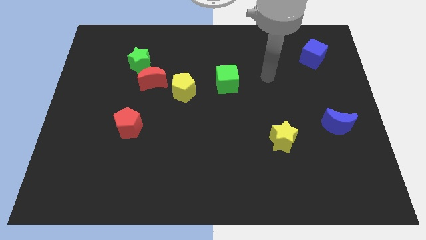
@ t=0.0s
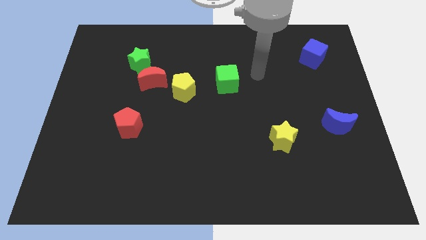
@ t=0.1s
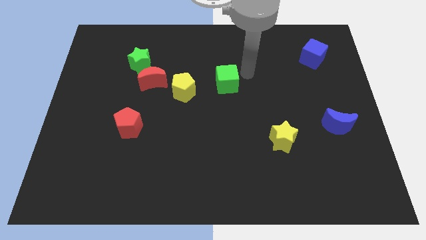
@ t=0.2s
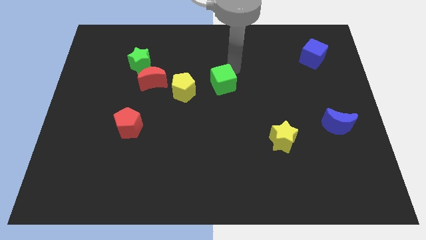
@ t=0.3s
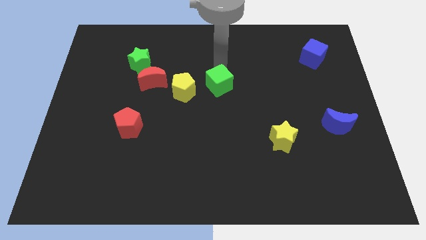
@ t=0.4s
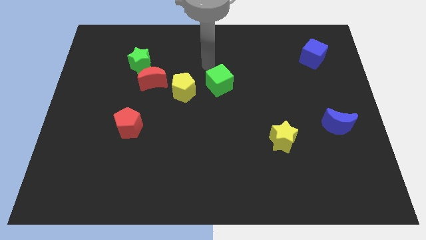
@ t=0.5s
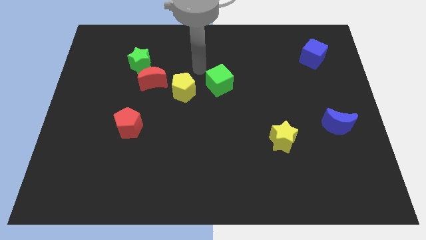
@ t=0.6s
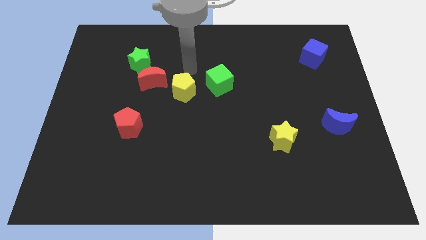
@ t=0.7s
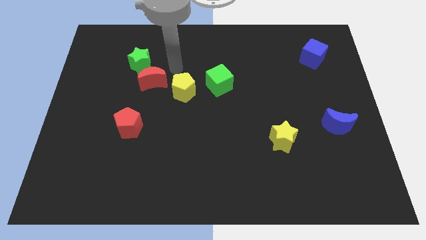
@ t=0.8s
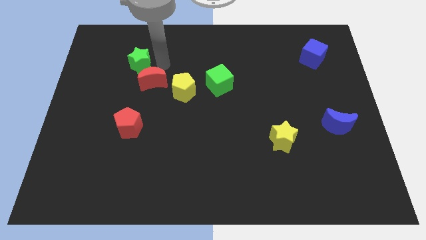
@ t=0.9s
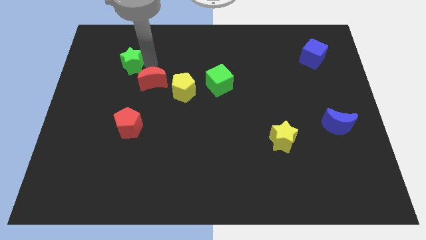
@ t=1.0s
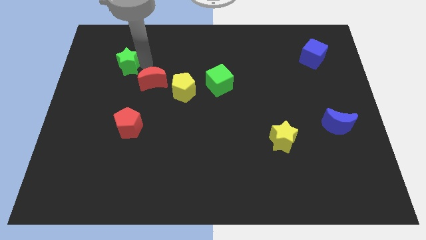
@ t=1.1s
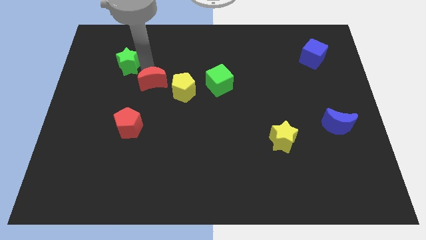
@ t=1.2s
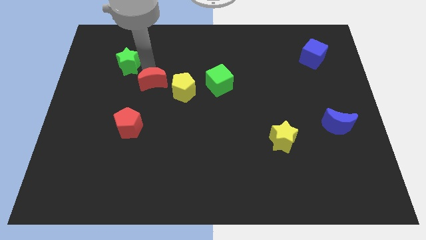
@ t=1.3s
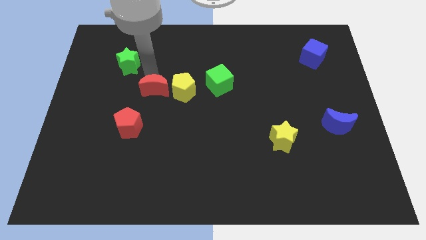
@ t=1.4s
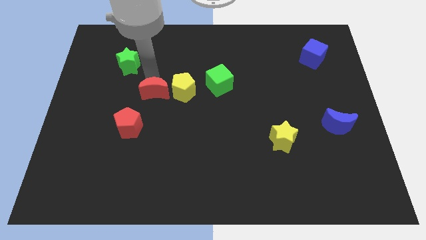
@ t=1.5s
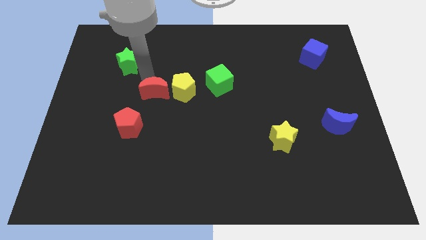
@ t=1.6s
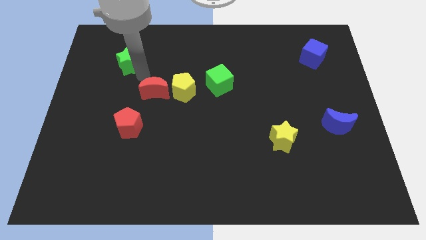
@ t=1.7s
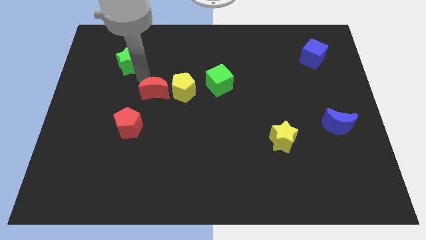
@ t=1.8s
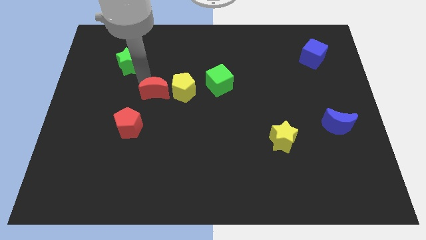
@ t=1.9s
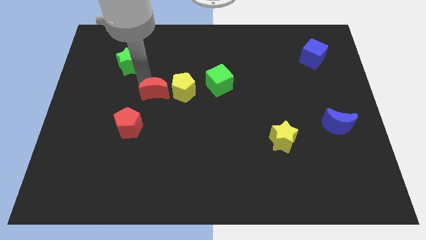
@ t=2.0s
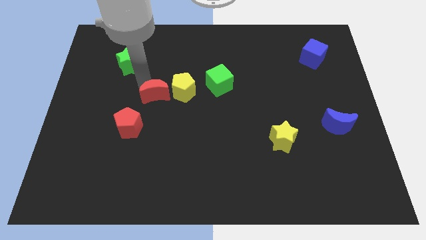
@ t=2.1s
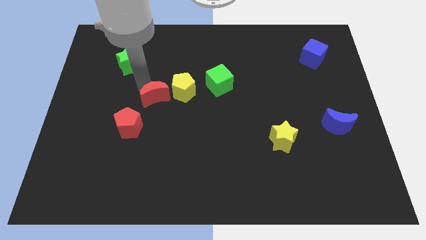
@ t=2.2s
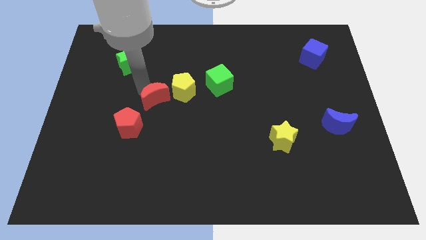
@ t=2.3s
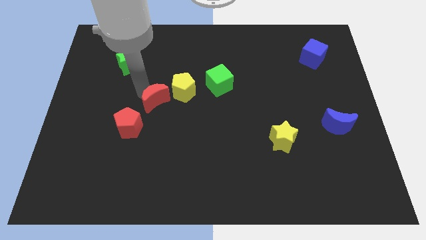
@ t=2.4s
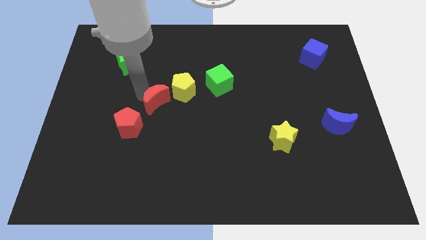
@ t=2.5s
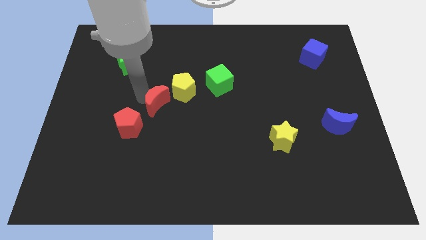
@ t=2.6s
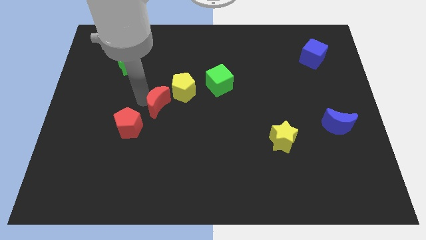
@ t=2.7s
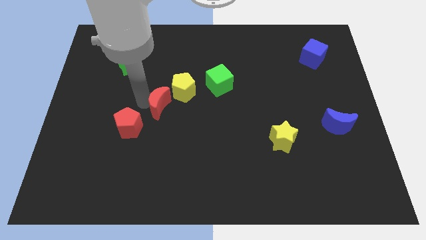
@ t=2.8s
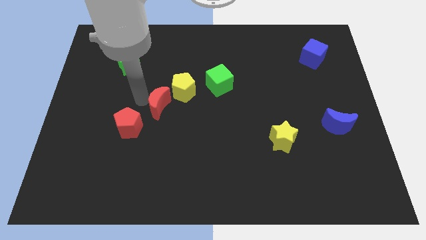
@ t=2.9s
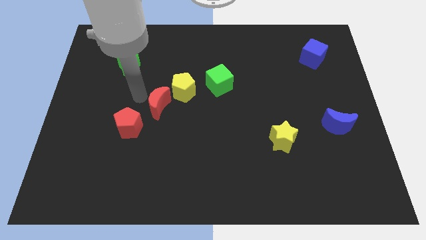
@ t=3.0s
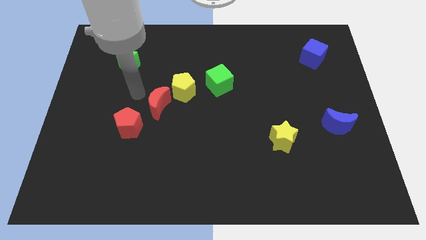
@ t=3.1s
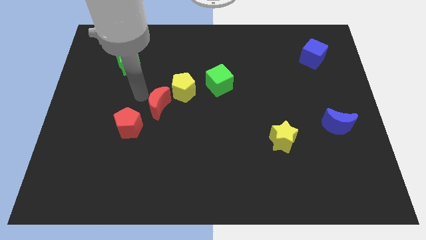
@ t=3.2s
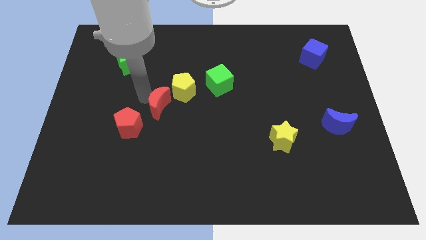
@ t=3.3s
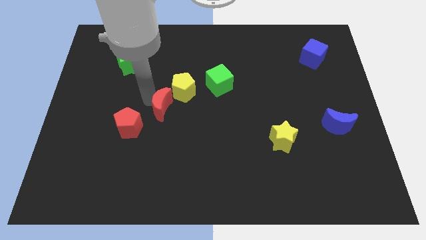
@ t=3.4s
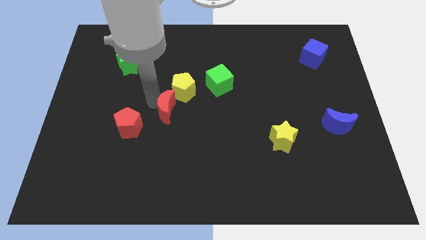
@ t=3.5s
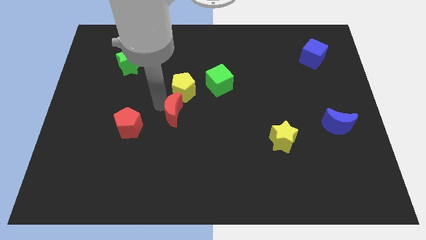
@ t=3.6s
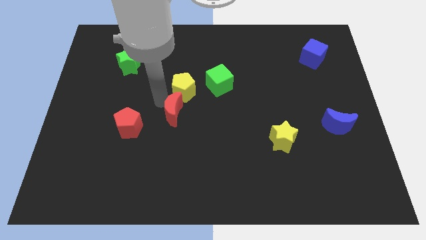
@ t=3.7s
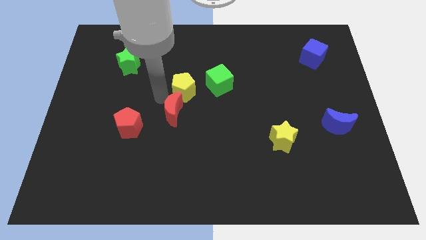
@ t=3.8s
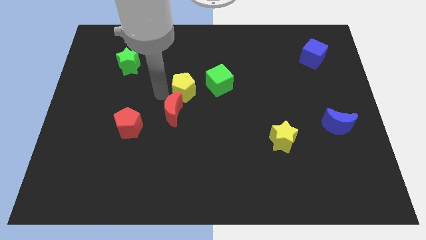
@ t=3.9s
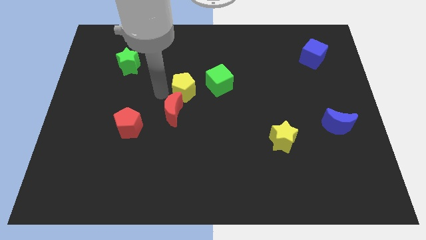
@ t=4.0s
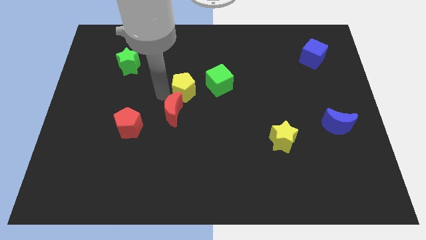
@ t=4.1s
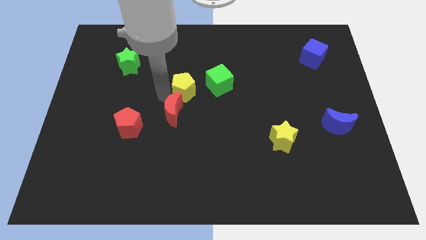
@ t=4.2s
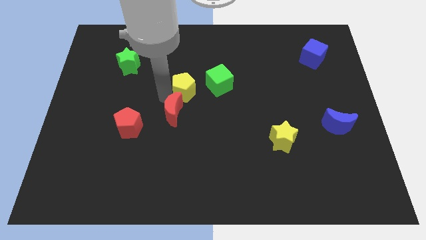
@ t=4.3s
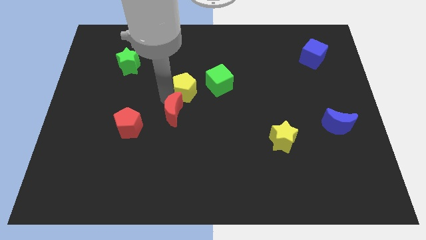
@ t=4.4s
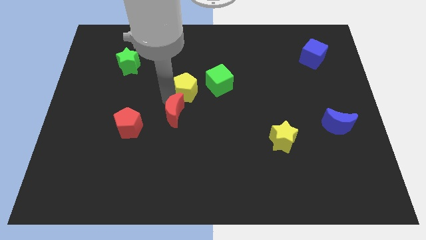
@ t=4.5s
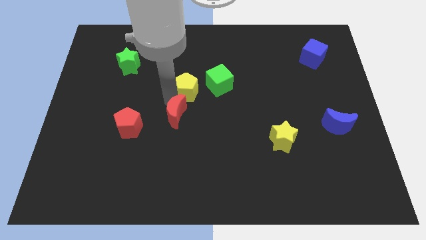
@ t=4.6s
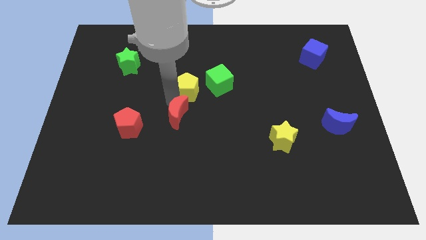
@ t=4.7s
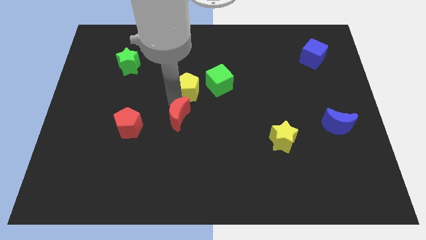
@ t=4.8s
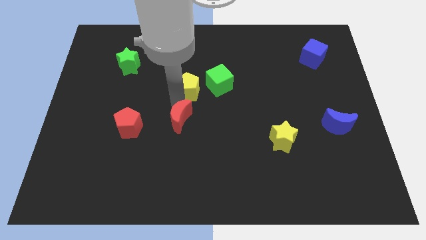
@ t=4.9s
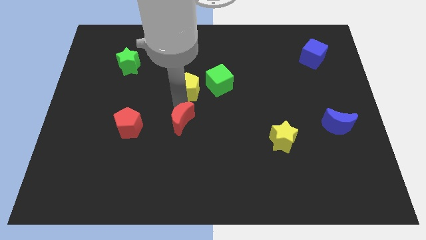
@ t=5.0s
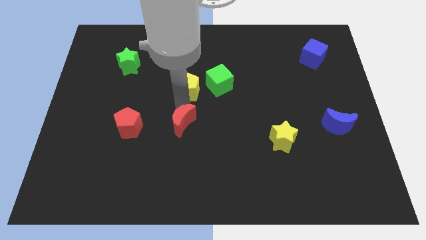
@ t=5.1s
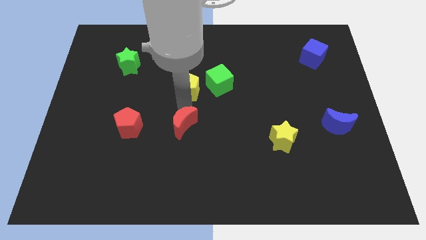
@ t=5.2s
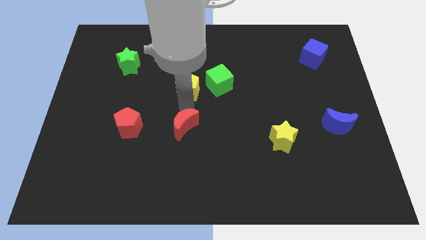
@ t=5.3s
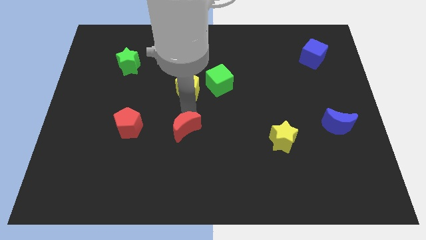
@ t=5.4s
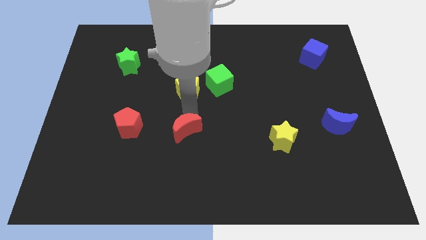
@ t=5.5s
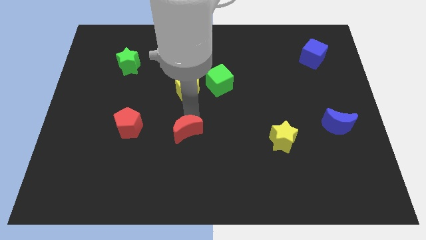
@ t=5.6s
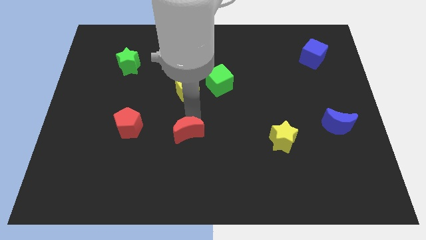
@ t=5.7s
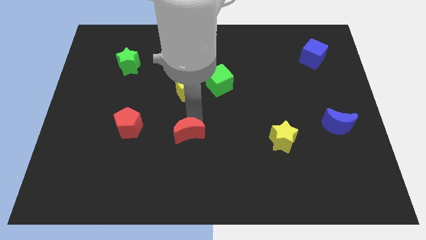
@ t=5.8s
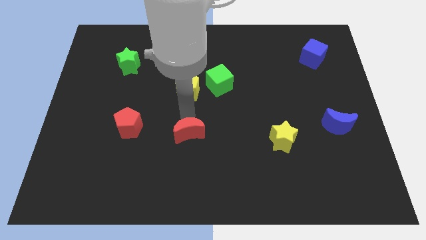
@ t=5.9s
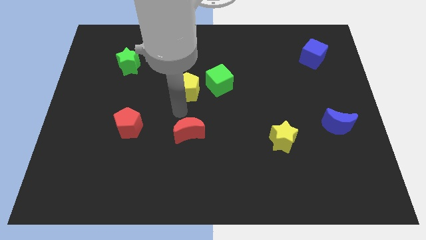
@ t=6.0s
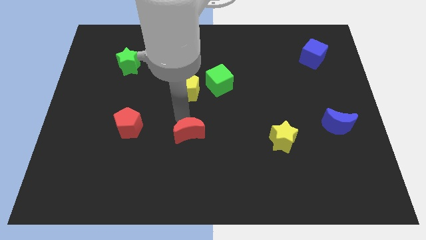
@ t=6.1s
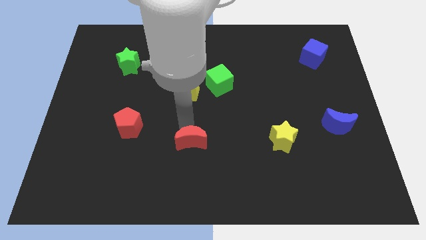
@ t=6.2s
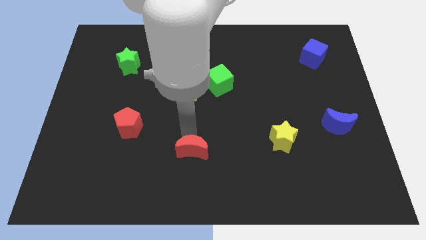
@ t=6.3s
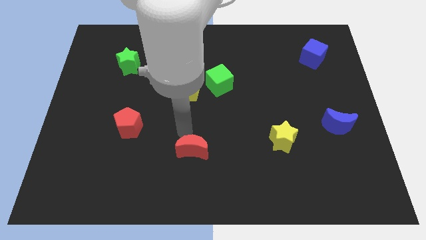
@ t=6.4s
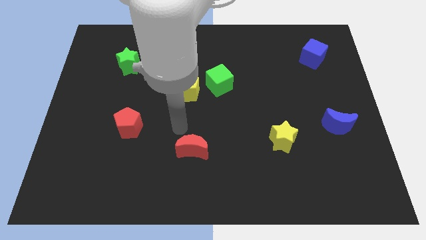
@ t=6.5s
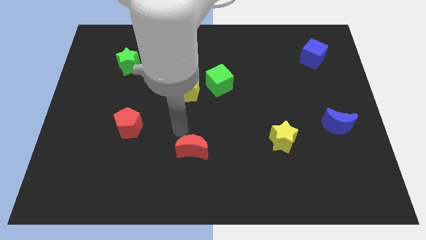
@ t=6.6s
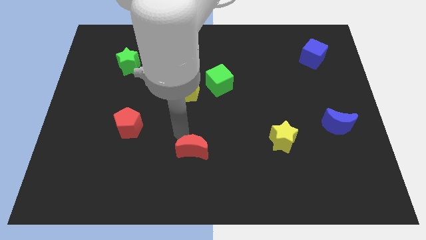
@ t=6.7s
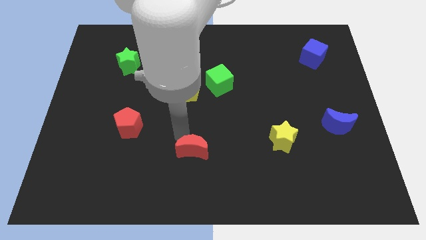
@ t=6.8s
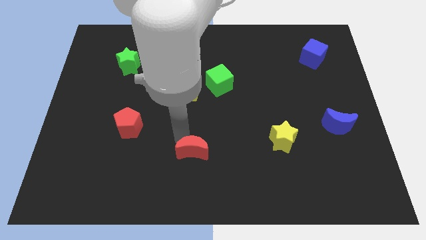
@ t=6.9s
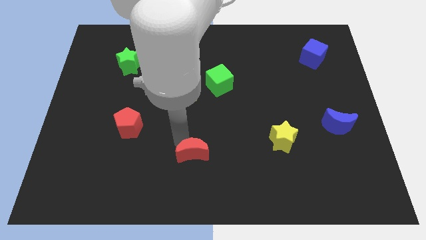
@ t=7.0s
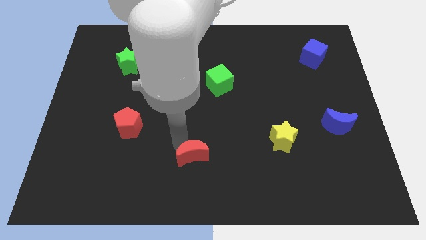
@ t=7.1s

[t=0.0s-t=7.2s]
push the red moon to the bottom

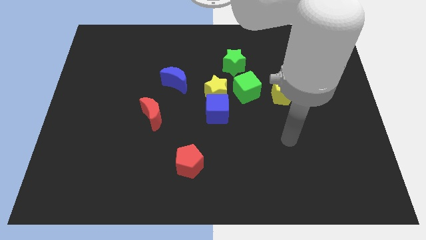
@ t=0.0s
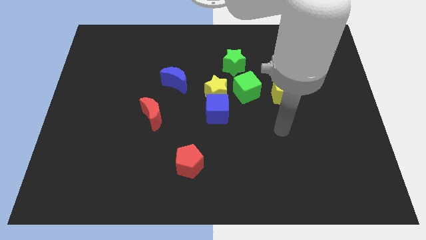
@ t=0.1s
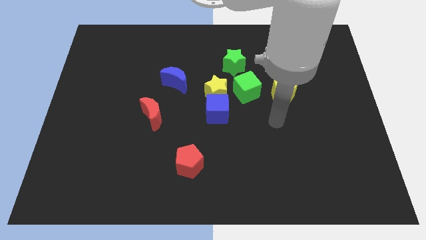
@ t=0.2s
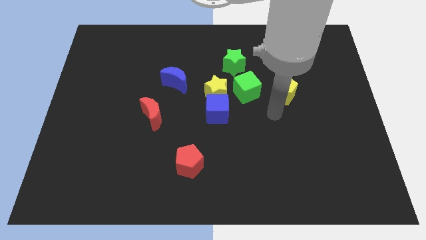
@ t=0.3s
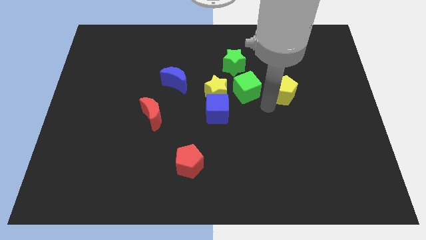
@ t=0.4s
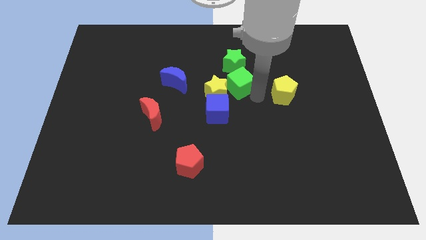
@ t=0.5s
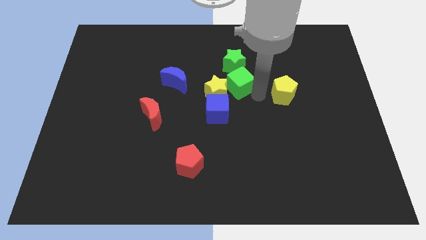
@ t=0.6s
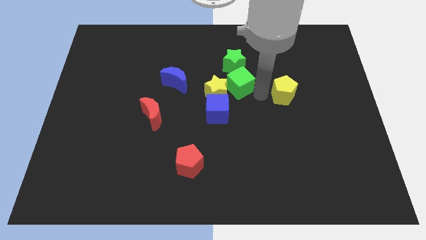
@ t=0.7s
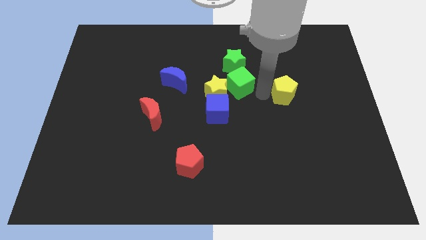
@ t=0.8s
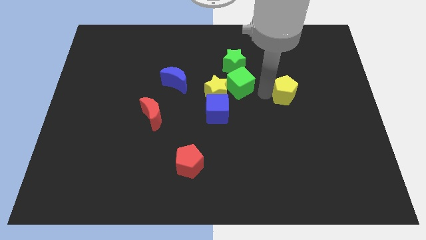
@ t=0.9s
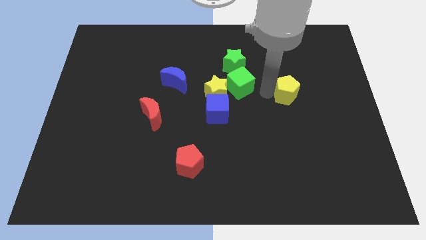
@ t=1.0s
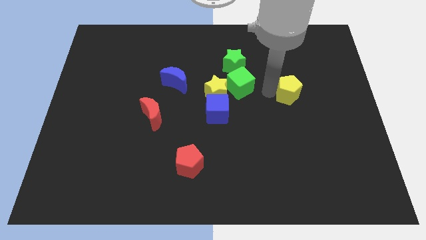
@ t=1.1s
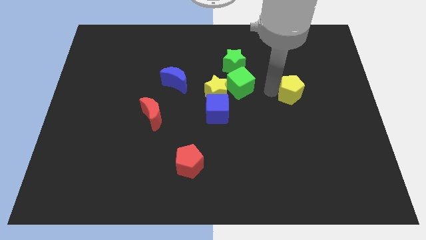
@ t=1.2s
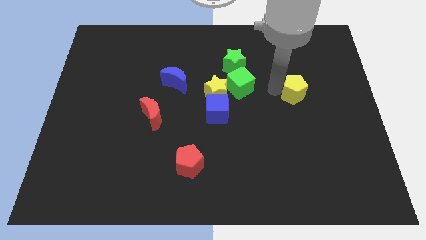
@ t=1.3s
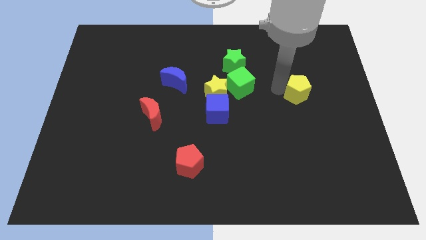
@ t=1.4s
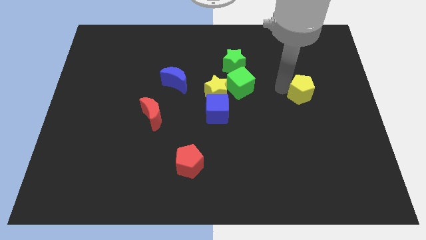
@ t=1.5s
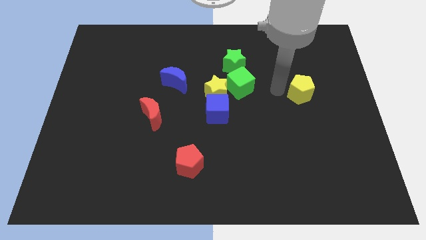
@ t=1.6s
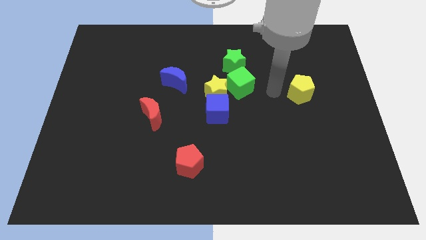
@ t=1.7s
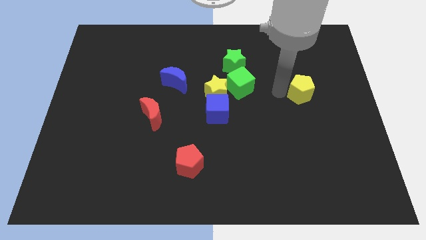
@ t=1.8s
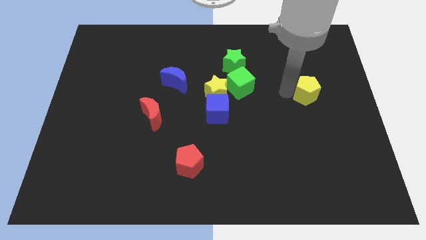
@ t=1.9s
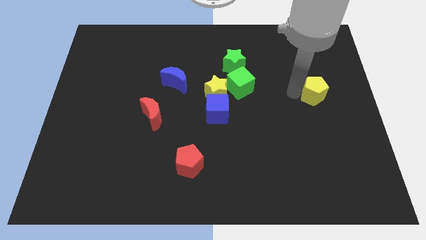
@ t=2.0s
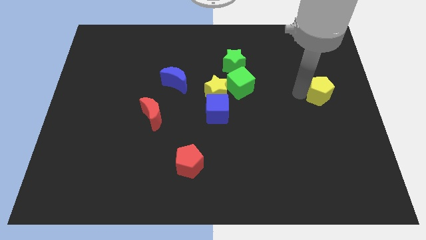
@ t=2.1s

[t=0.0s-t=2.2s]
put the yellow pentagon to the right side
